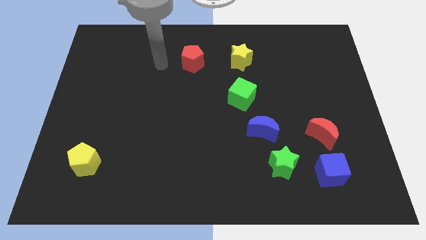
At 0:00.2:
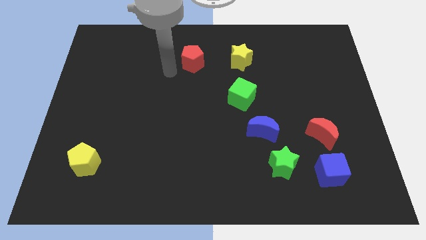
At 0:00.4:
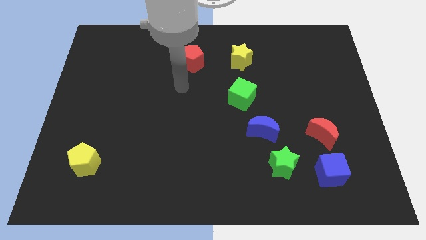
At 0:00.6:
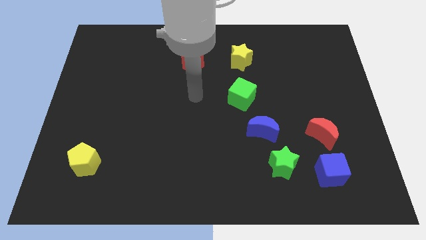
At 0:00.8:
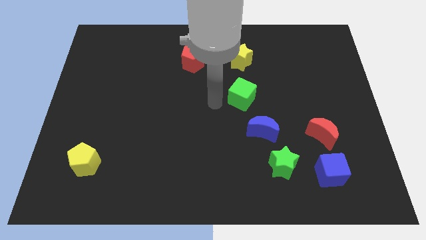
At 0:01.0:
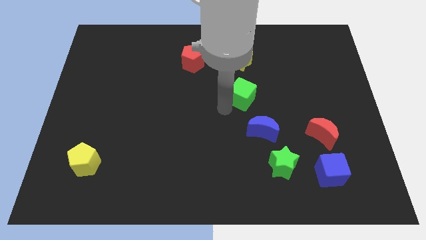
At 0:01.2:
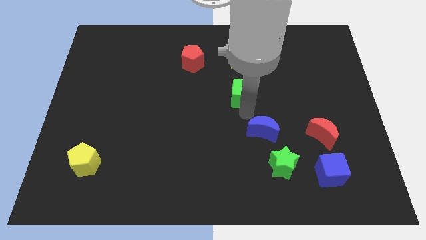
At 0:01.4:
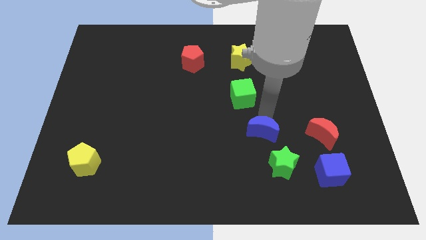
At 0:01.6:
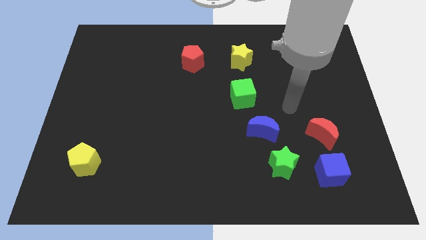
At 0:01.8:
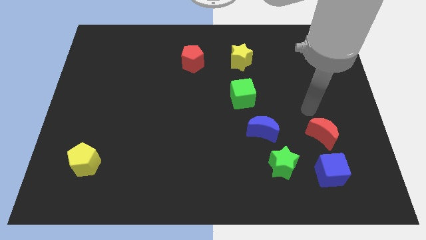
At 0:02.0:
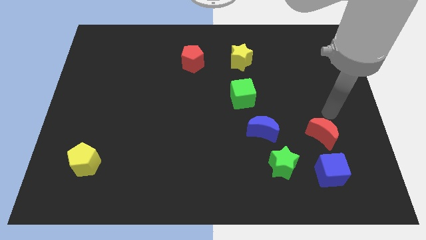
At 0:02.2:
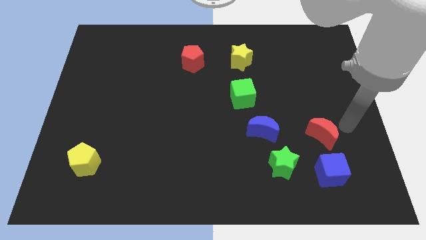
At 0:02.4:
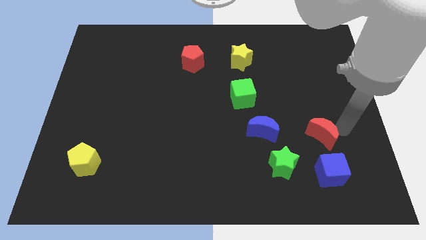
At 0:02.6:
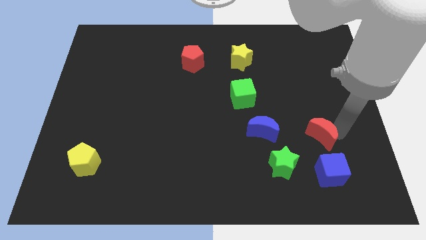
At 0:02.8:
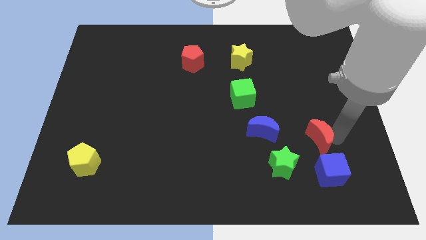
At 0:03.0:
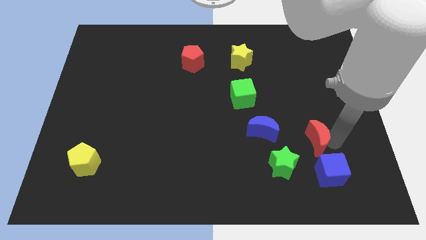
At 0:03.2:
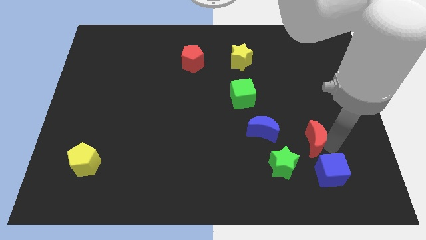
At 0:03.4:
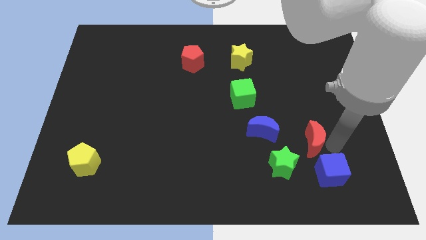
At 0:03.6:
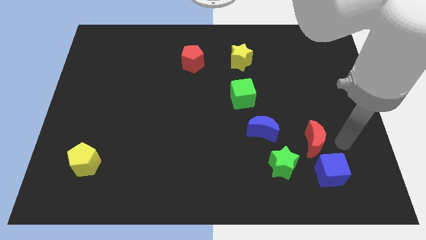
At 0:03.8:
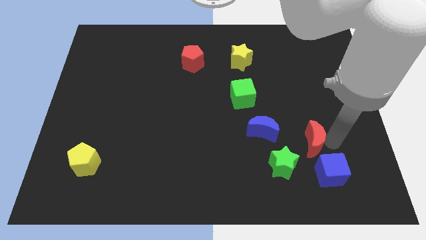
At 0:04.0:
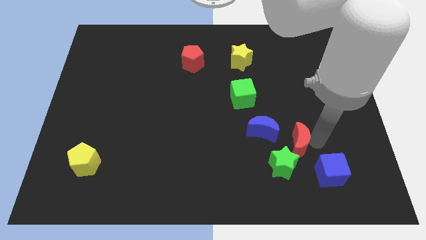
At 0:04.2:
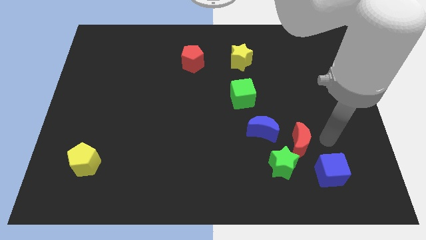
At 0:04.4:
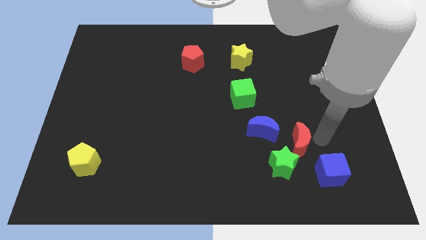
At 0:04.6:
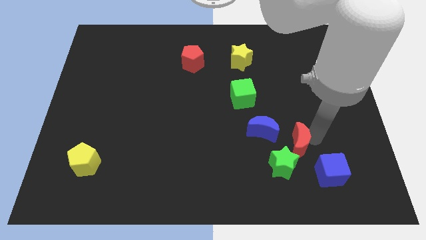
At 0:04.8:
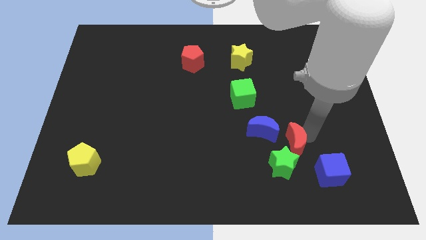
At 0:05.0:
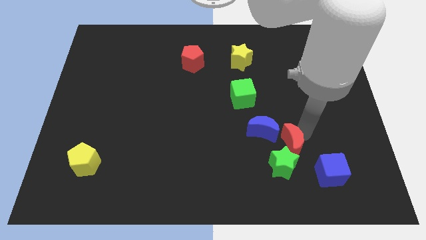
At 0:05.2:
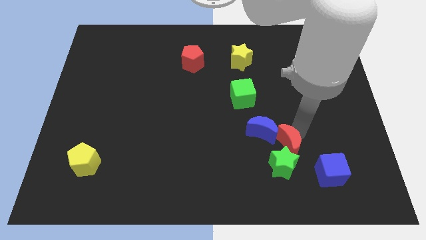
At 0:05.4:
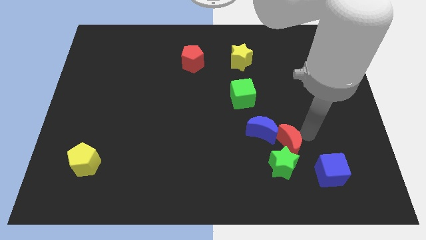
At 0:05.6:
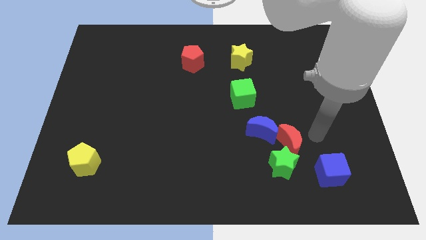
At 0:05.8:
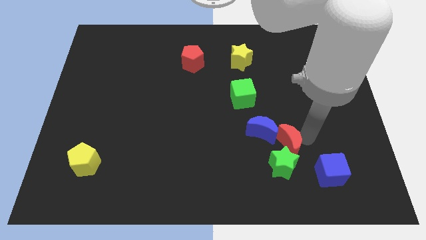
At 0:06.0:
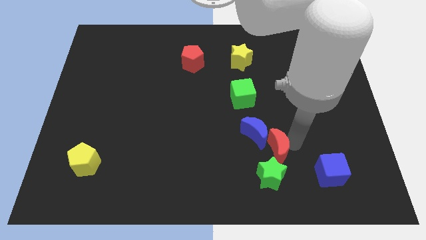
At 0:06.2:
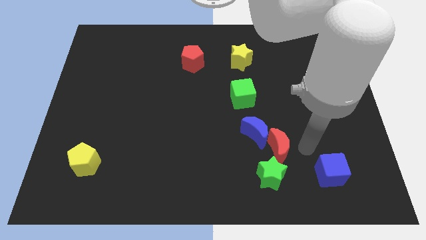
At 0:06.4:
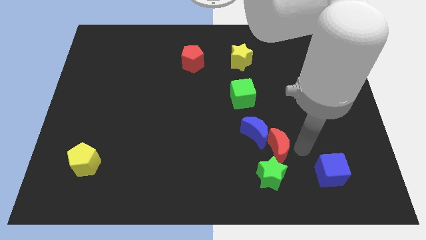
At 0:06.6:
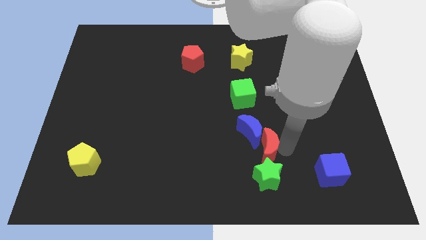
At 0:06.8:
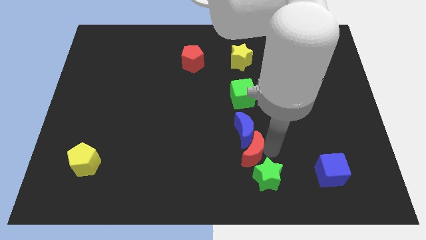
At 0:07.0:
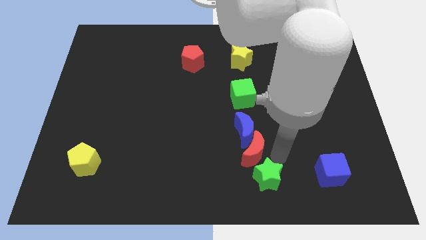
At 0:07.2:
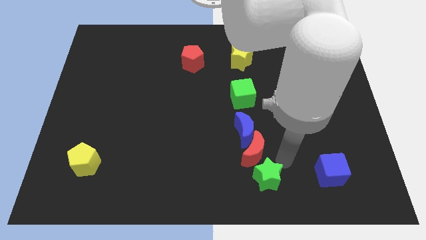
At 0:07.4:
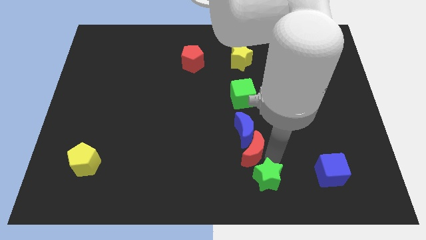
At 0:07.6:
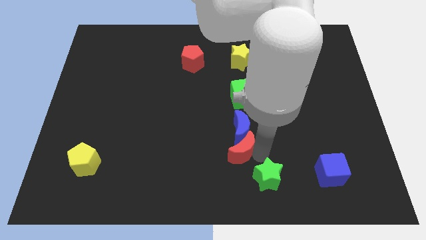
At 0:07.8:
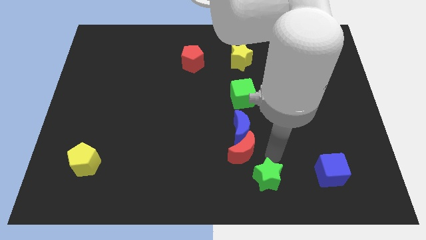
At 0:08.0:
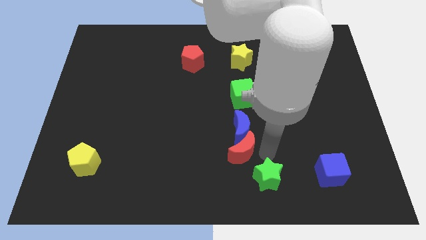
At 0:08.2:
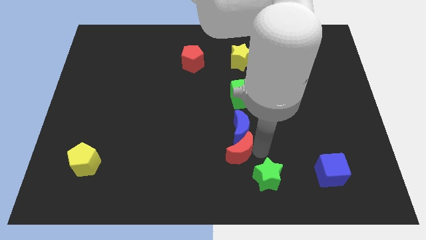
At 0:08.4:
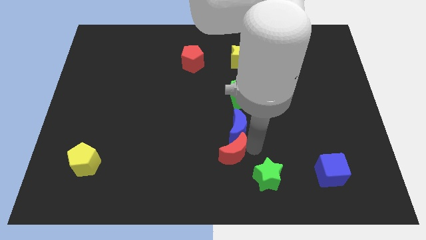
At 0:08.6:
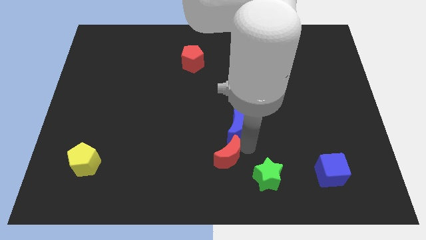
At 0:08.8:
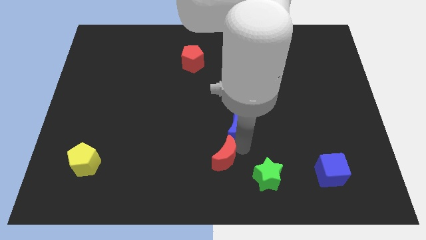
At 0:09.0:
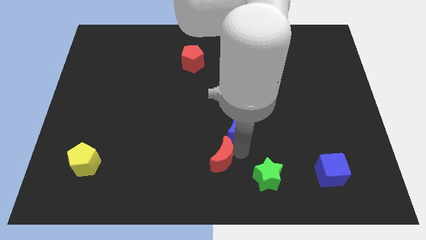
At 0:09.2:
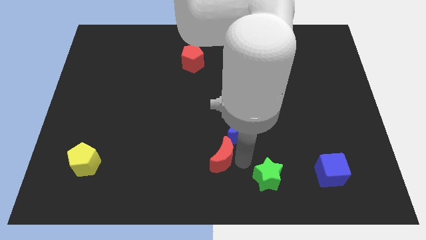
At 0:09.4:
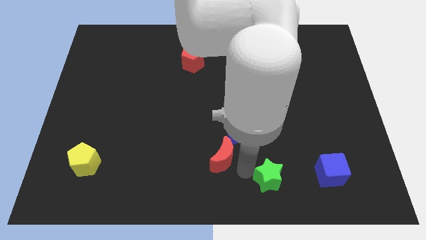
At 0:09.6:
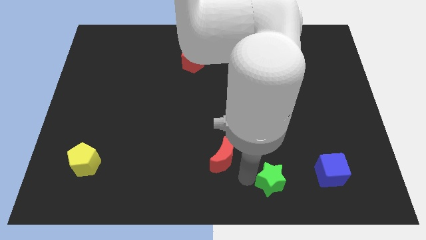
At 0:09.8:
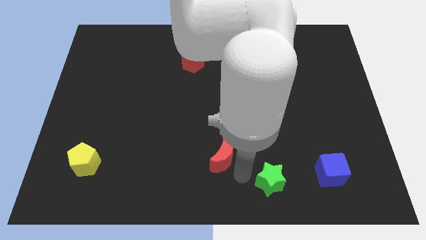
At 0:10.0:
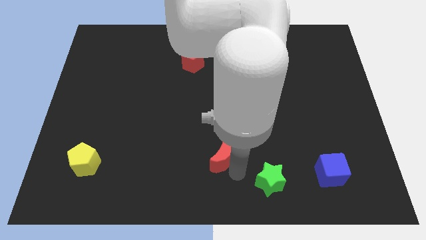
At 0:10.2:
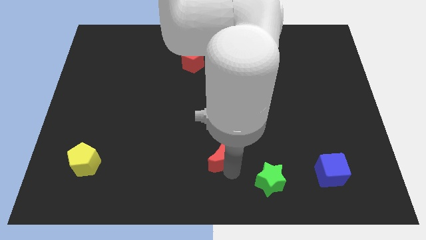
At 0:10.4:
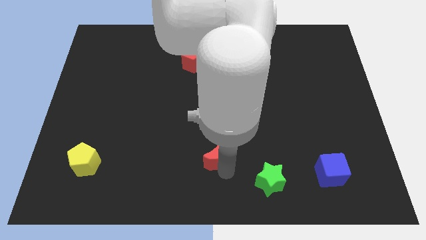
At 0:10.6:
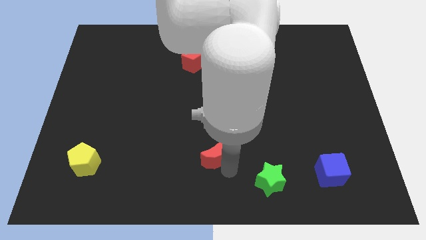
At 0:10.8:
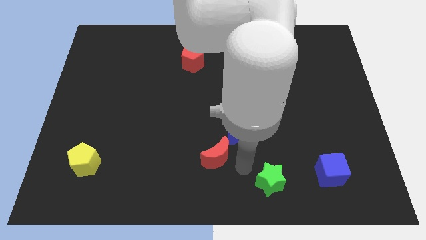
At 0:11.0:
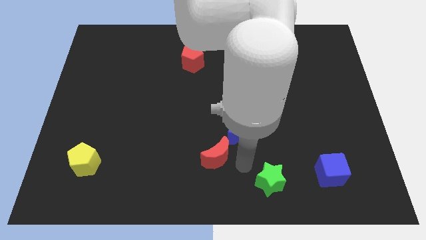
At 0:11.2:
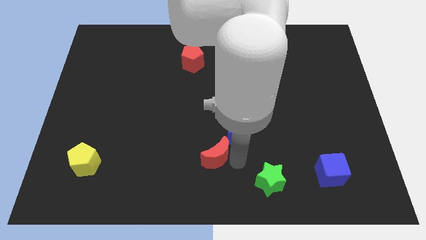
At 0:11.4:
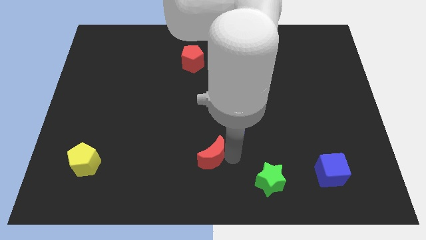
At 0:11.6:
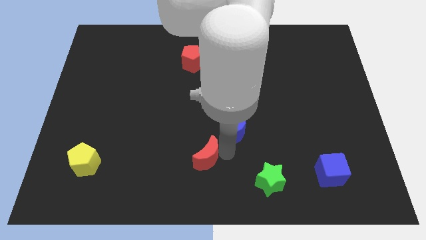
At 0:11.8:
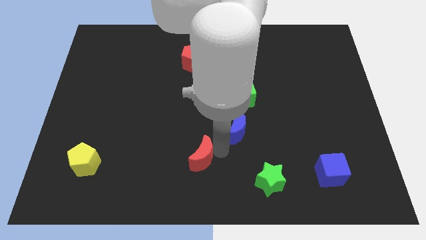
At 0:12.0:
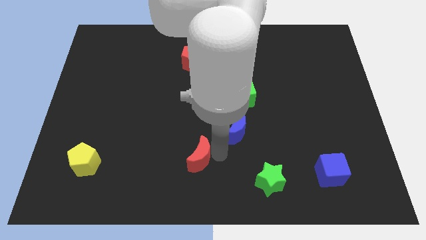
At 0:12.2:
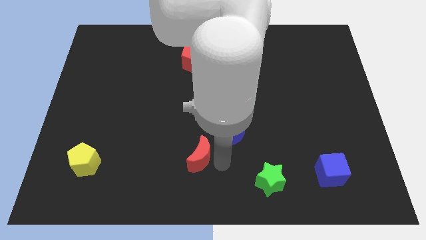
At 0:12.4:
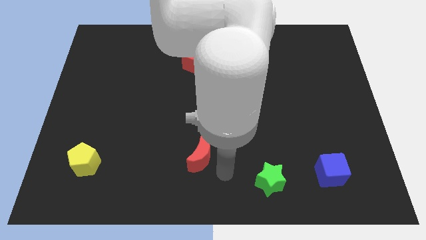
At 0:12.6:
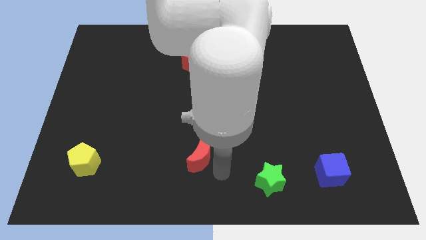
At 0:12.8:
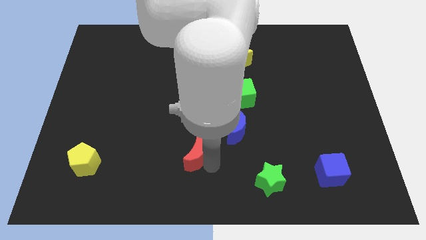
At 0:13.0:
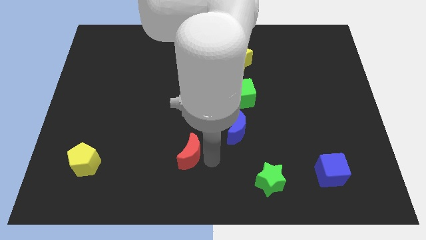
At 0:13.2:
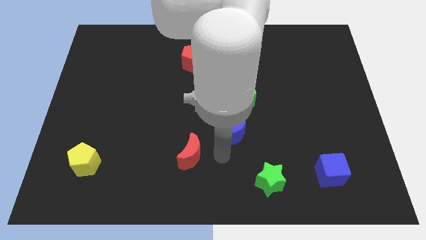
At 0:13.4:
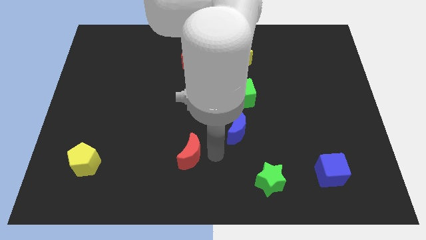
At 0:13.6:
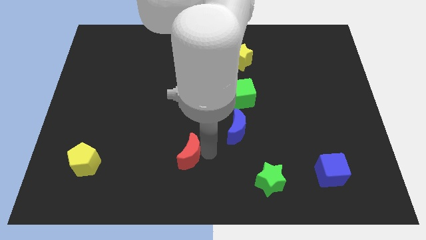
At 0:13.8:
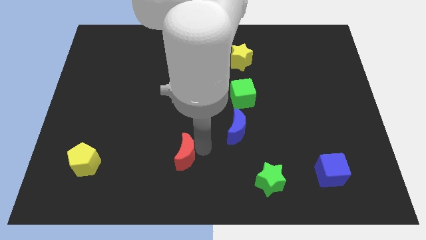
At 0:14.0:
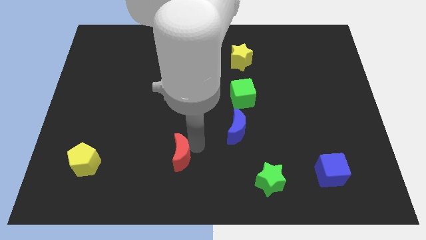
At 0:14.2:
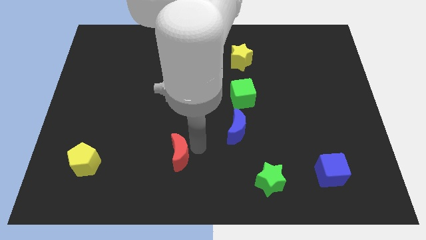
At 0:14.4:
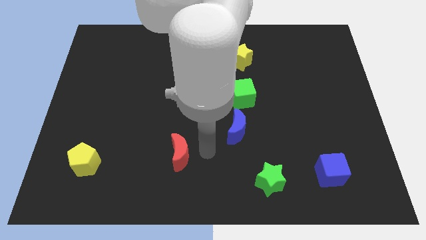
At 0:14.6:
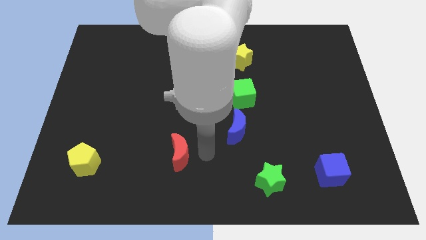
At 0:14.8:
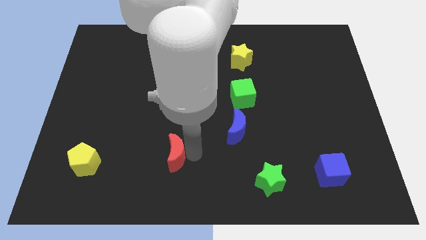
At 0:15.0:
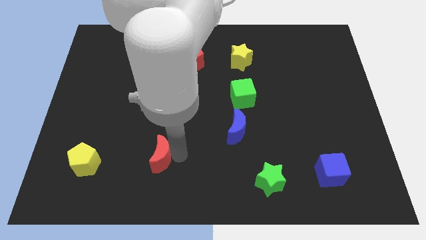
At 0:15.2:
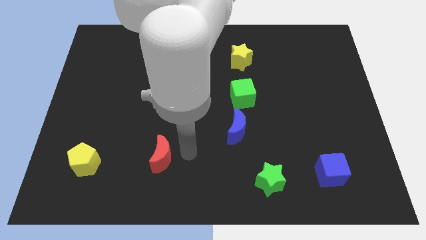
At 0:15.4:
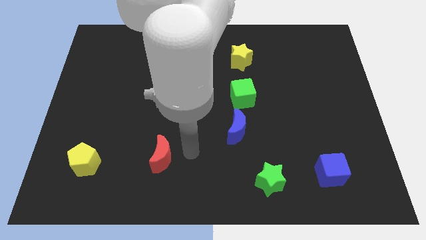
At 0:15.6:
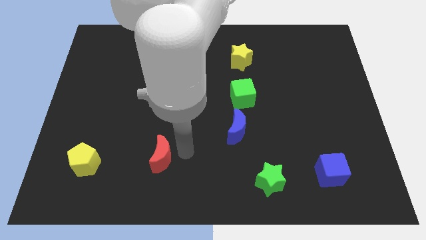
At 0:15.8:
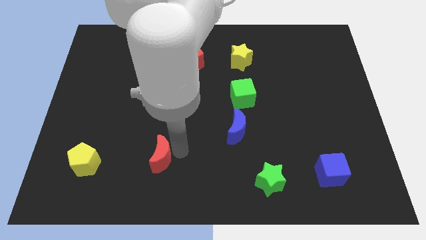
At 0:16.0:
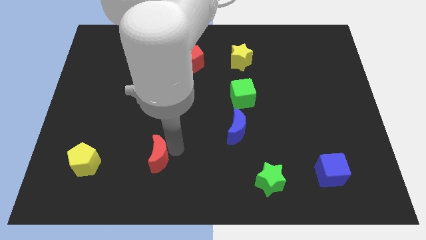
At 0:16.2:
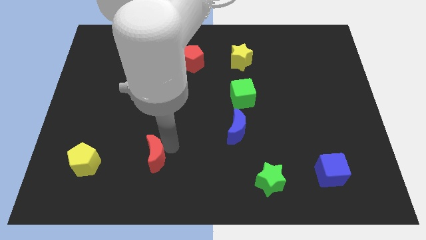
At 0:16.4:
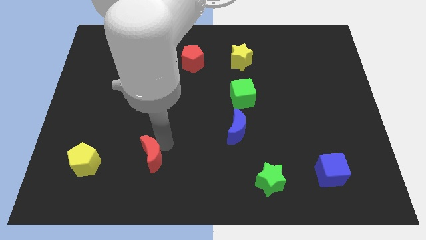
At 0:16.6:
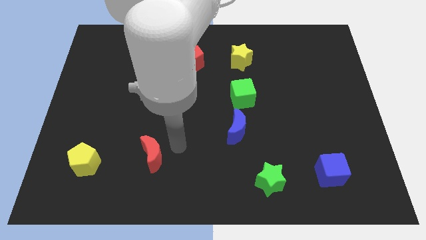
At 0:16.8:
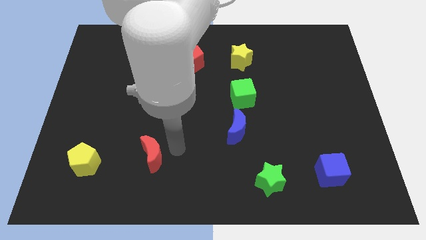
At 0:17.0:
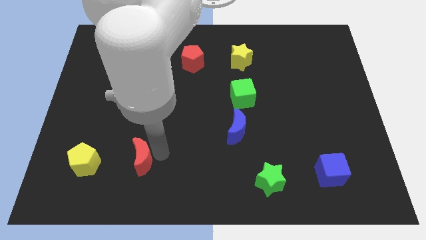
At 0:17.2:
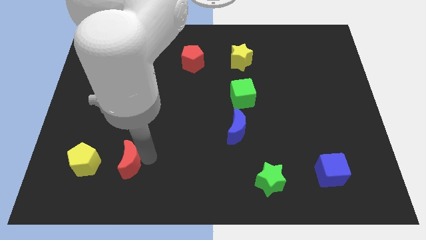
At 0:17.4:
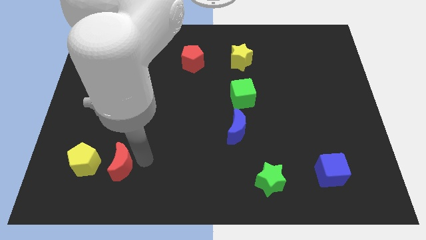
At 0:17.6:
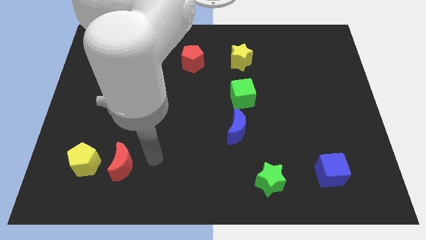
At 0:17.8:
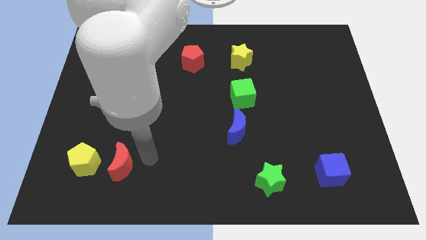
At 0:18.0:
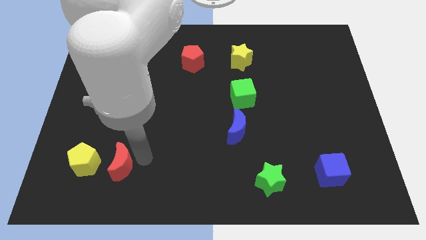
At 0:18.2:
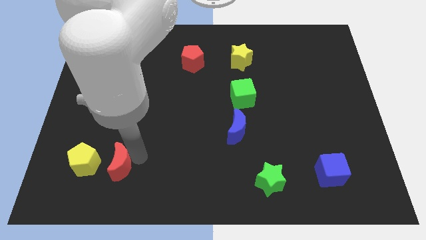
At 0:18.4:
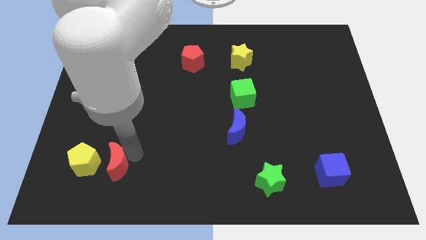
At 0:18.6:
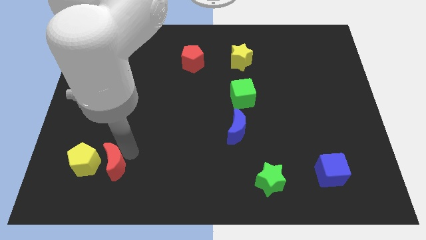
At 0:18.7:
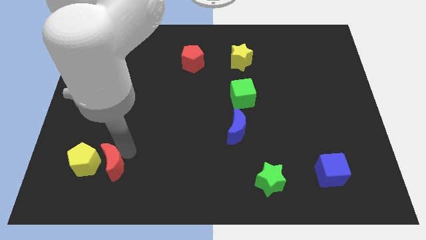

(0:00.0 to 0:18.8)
put the red moon to the yellow pentagon
